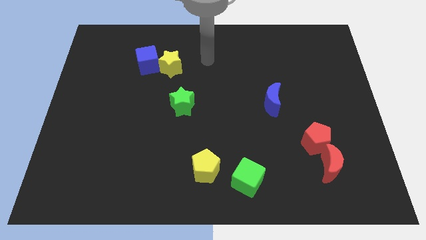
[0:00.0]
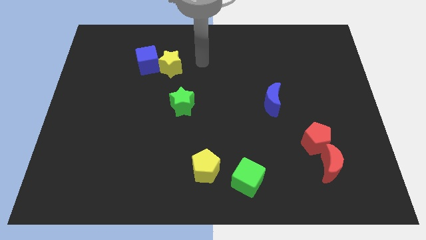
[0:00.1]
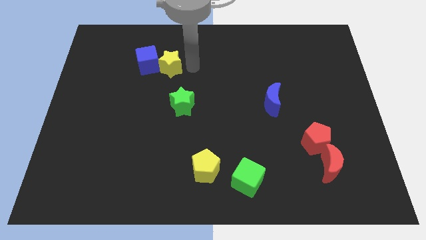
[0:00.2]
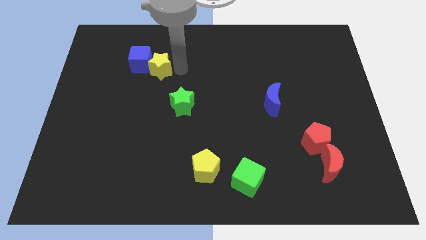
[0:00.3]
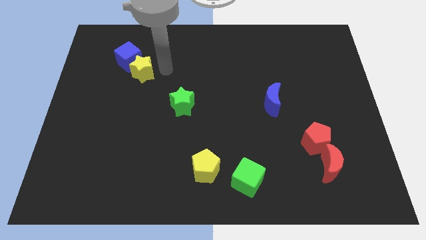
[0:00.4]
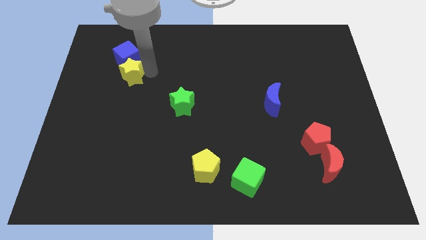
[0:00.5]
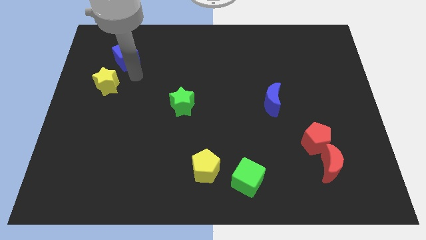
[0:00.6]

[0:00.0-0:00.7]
separate the blue cube from the yellow star

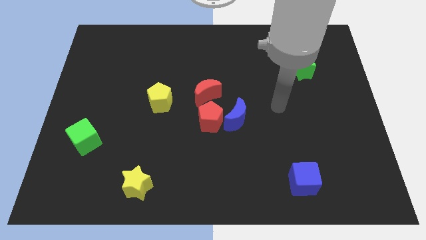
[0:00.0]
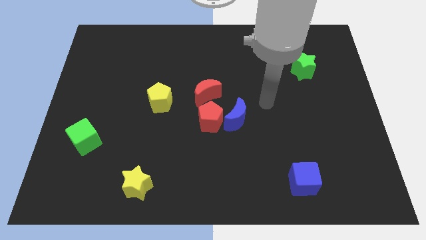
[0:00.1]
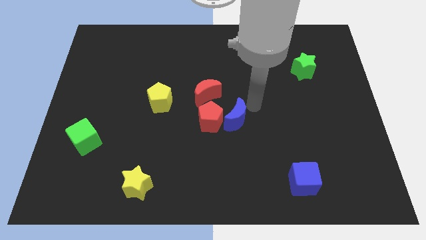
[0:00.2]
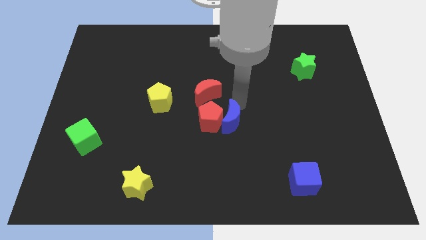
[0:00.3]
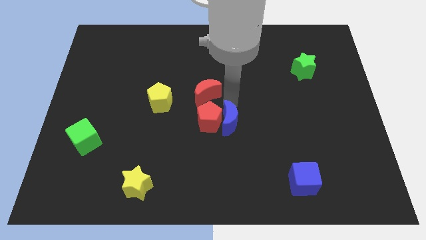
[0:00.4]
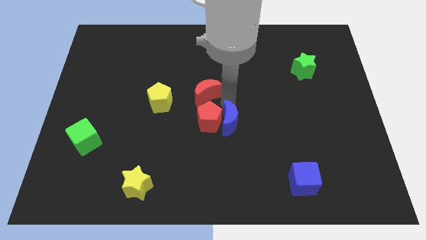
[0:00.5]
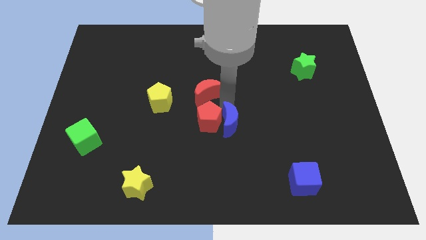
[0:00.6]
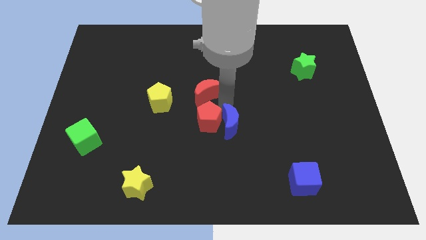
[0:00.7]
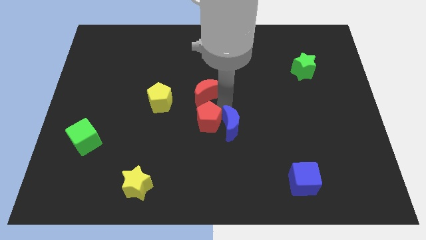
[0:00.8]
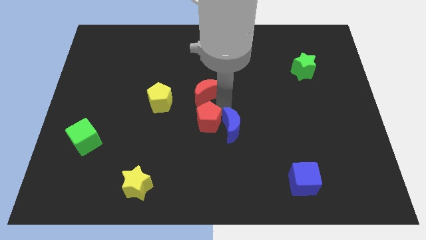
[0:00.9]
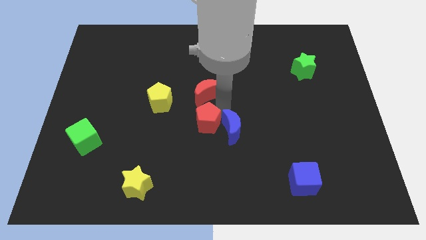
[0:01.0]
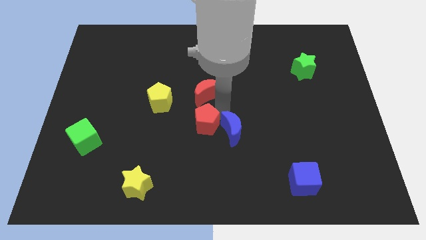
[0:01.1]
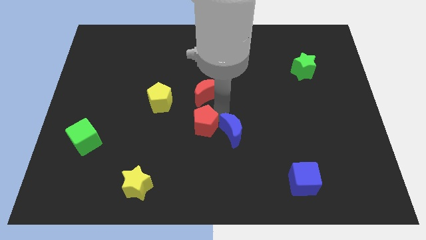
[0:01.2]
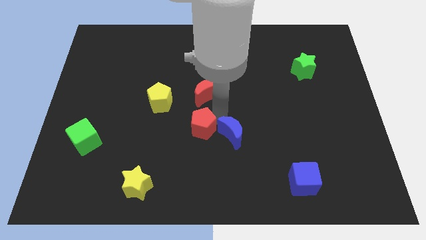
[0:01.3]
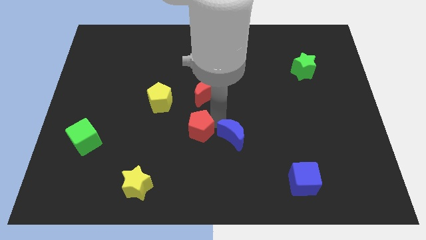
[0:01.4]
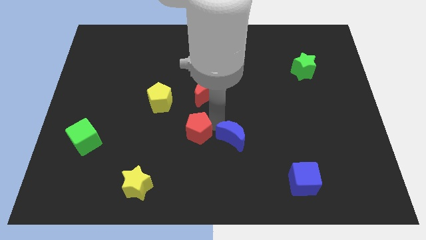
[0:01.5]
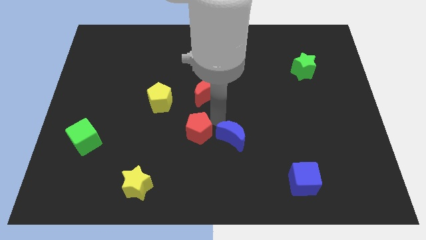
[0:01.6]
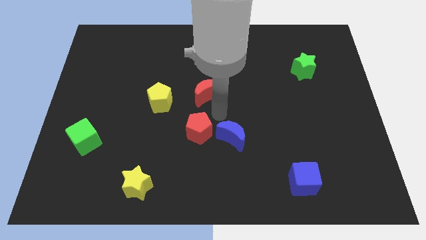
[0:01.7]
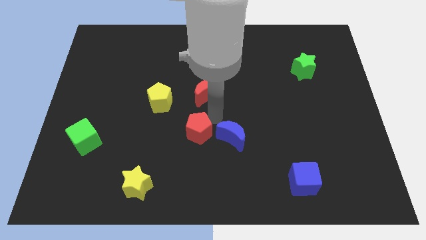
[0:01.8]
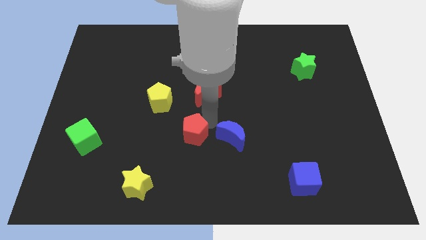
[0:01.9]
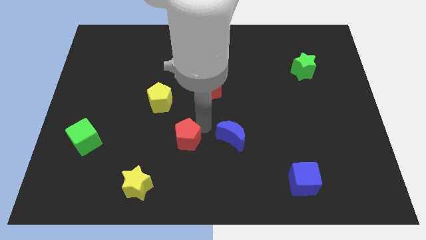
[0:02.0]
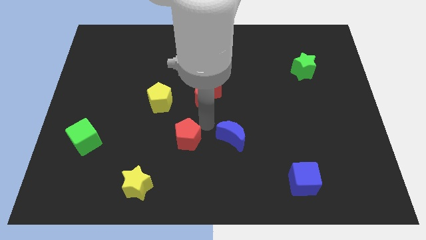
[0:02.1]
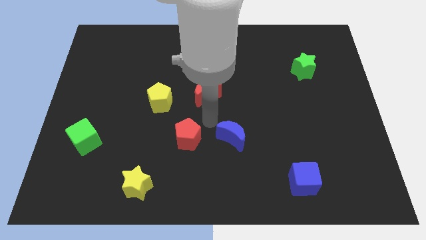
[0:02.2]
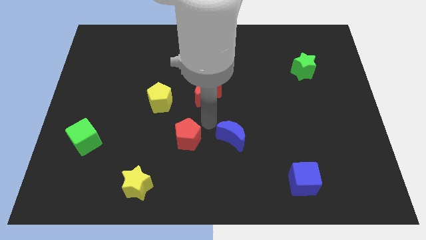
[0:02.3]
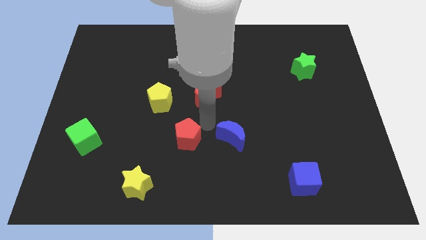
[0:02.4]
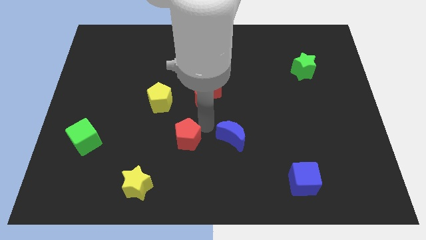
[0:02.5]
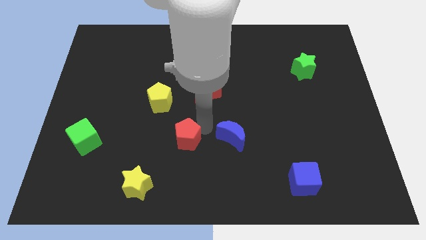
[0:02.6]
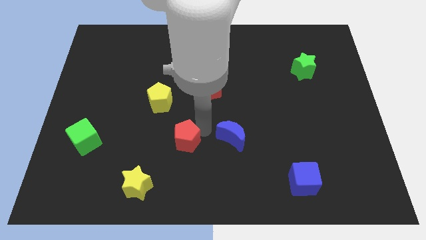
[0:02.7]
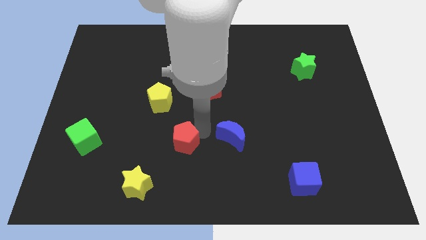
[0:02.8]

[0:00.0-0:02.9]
separate the red pentagon from the blue moon and red moon

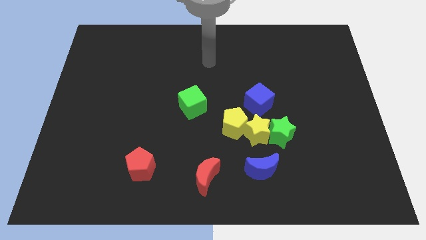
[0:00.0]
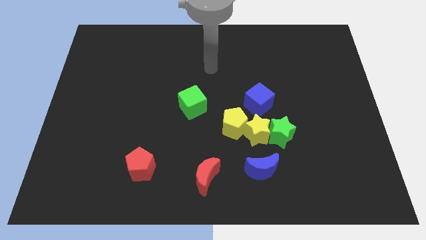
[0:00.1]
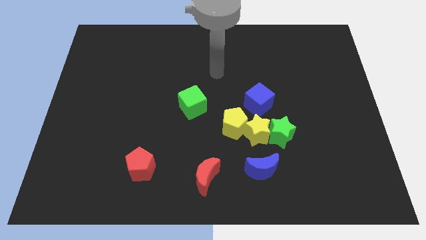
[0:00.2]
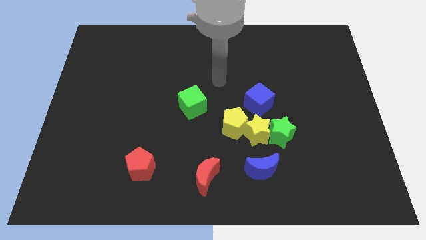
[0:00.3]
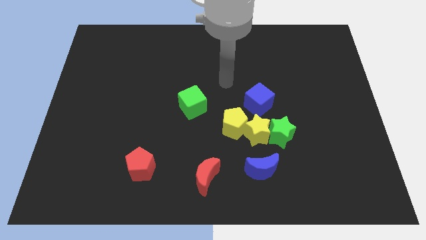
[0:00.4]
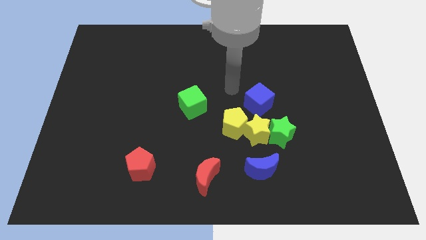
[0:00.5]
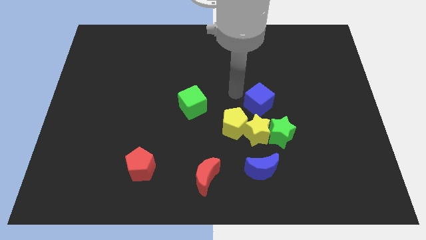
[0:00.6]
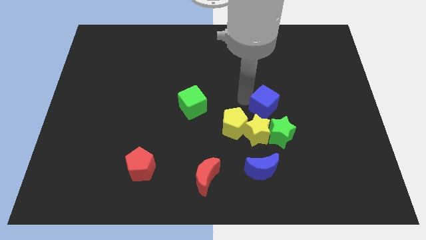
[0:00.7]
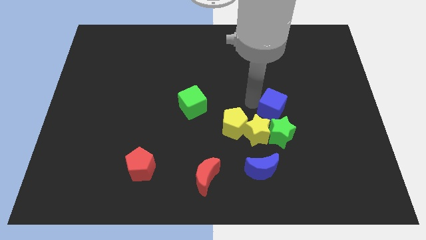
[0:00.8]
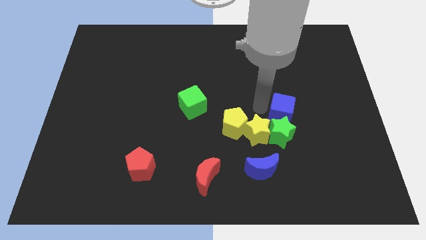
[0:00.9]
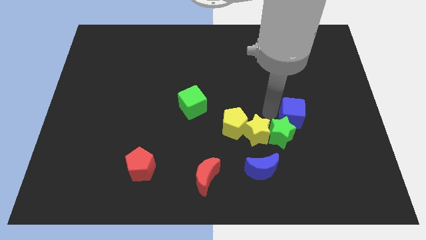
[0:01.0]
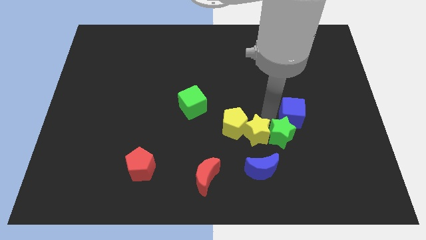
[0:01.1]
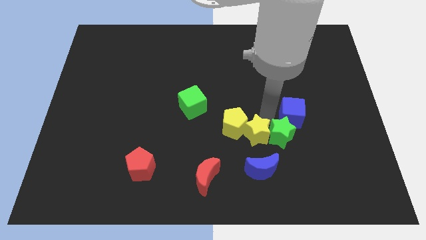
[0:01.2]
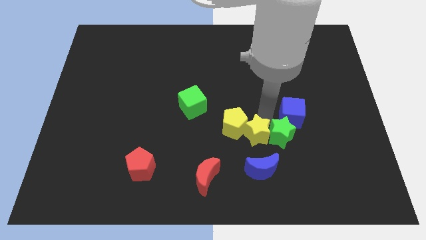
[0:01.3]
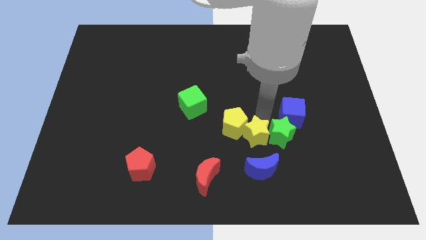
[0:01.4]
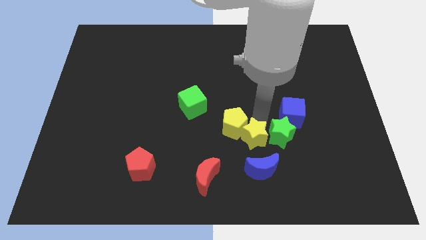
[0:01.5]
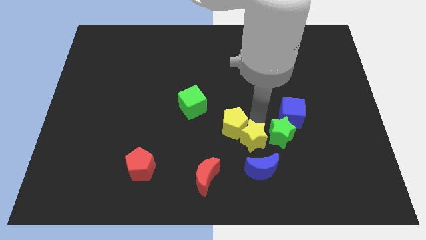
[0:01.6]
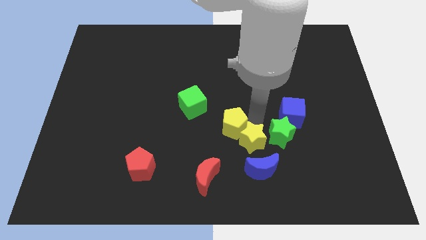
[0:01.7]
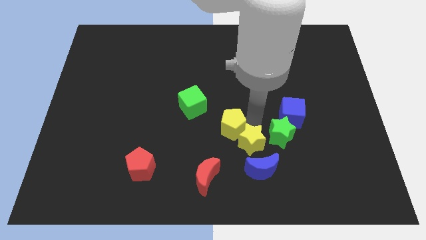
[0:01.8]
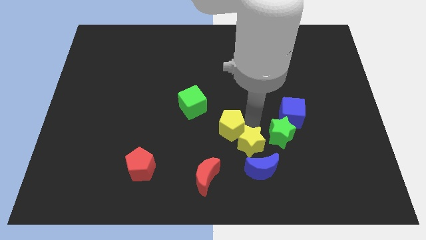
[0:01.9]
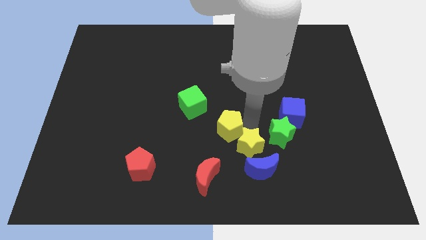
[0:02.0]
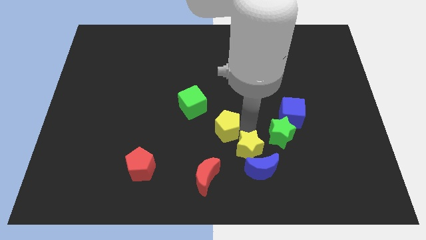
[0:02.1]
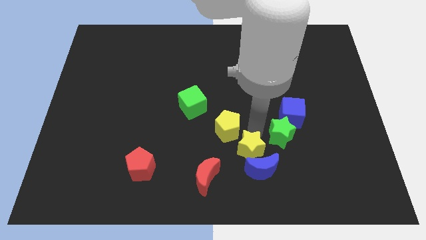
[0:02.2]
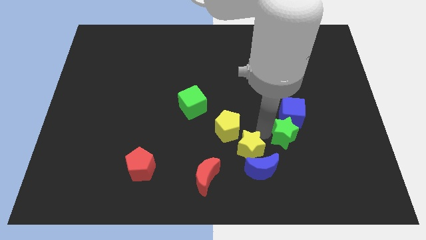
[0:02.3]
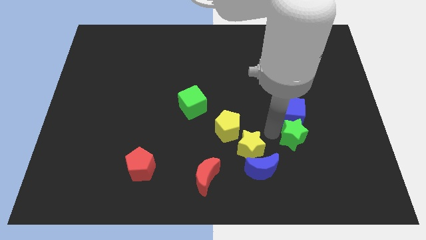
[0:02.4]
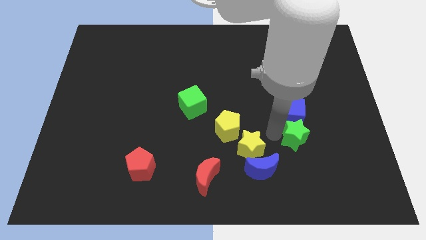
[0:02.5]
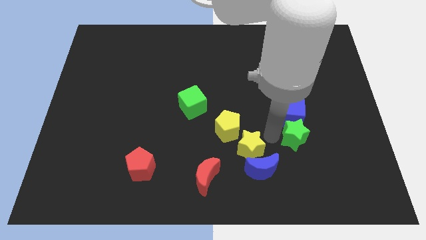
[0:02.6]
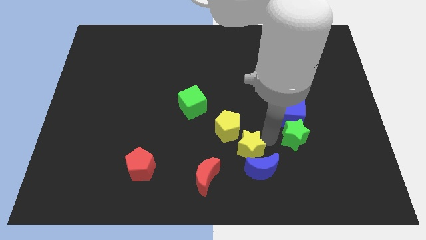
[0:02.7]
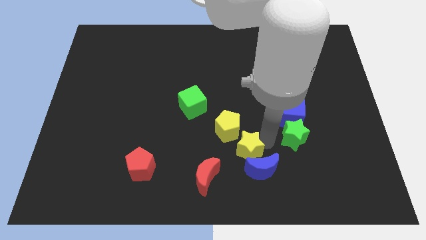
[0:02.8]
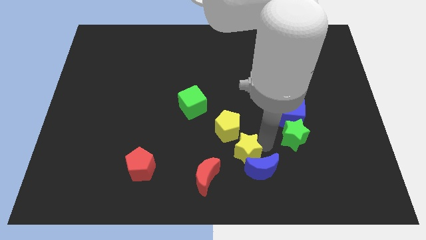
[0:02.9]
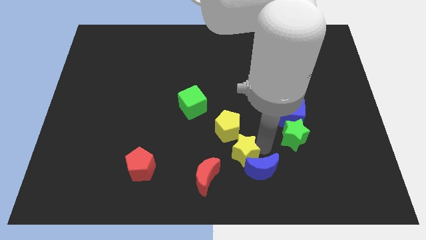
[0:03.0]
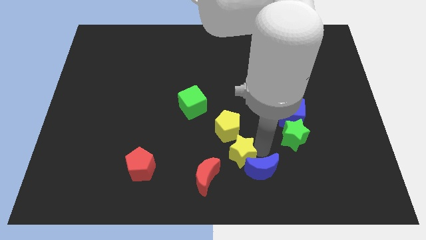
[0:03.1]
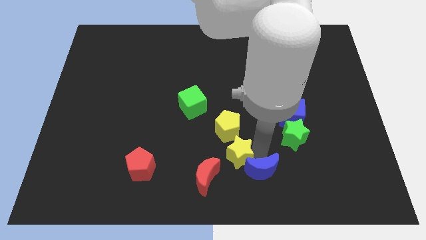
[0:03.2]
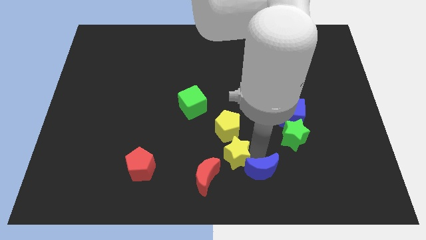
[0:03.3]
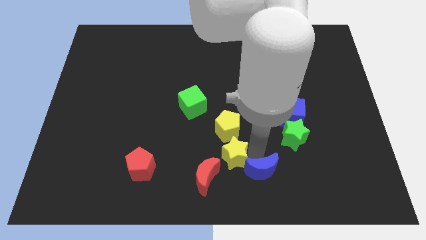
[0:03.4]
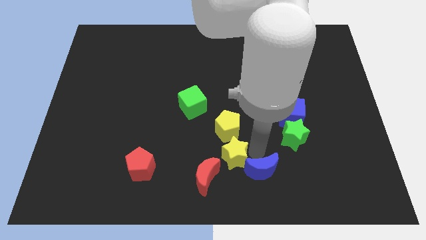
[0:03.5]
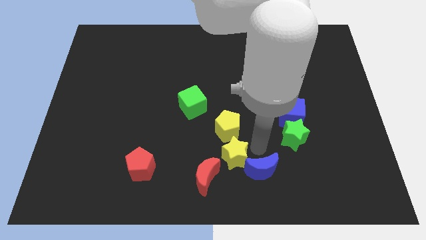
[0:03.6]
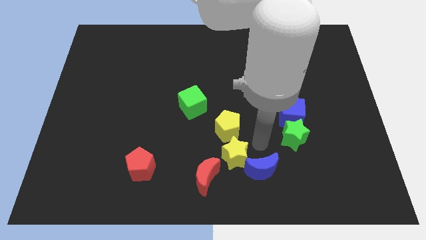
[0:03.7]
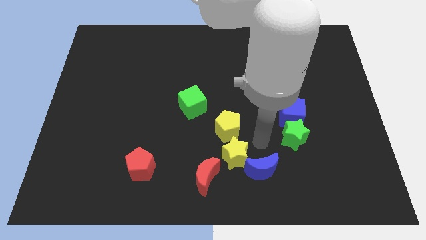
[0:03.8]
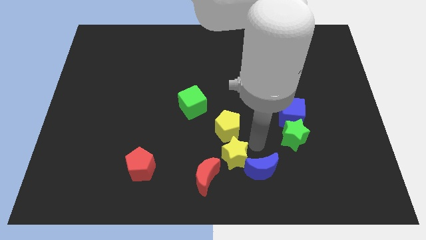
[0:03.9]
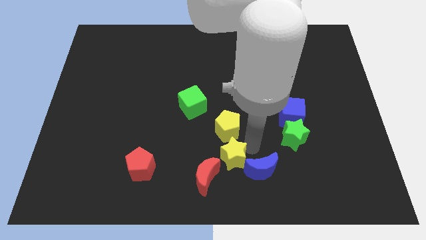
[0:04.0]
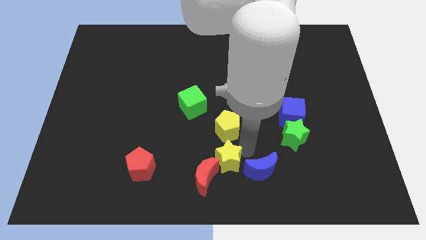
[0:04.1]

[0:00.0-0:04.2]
separate the yellow star from the group of blocks

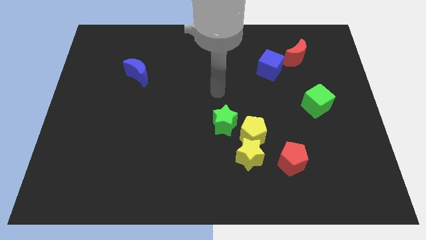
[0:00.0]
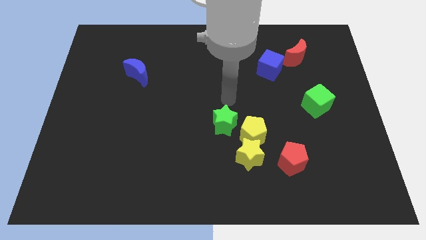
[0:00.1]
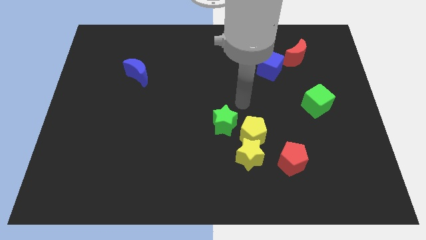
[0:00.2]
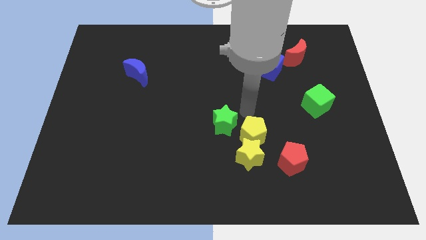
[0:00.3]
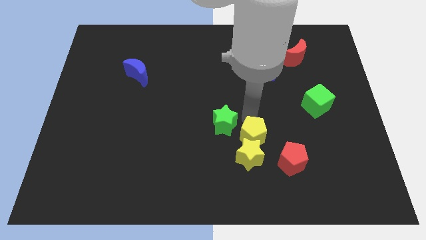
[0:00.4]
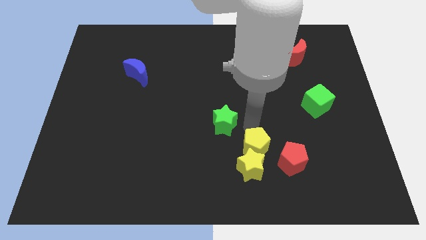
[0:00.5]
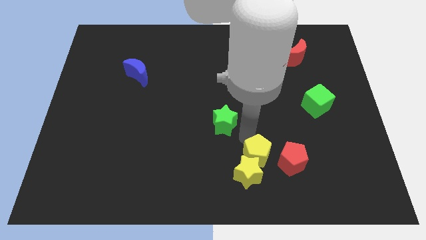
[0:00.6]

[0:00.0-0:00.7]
separate the green star from the yellow pentagon

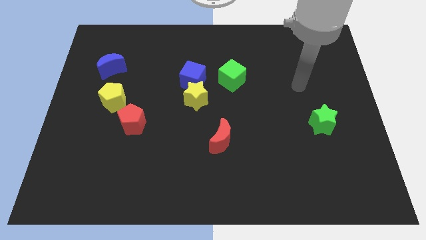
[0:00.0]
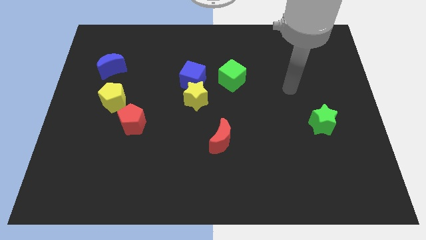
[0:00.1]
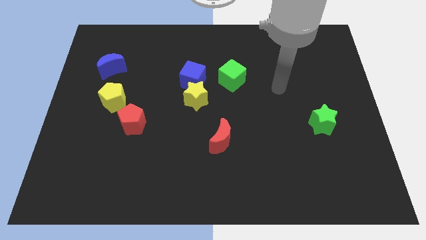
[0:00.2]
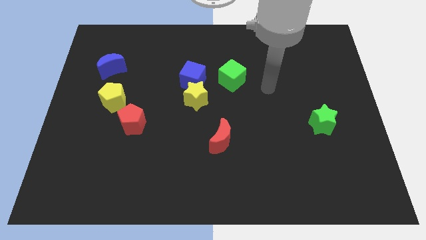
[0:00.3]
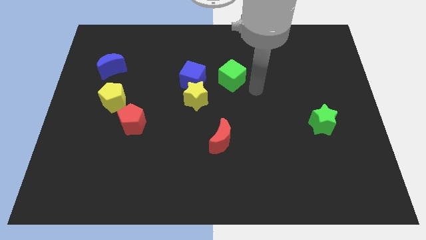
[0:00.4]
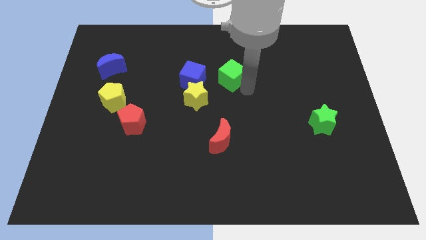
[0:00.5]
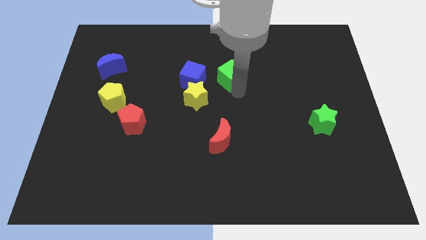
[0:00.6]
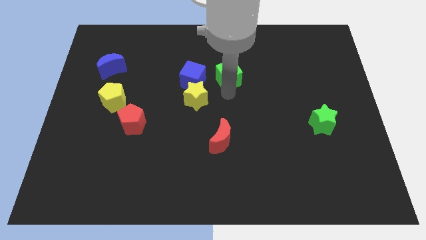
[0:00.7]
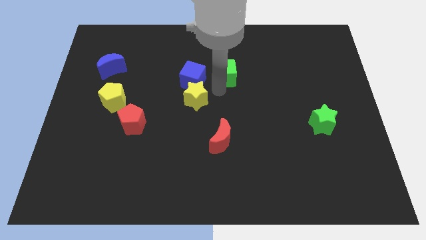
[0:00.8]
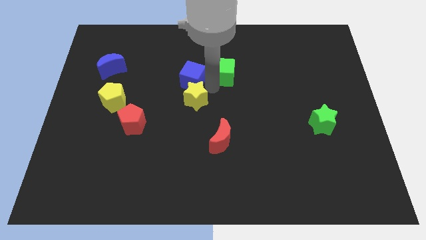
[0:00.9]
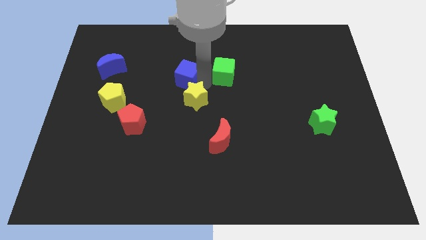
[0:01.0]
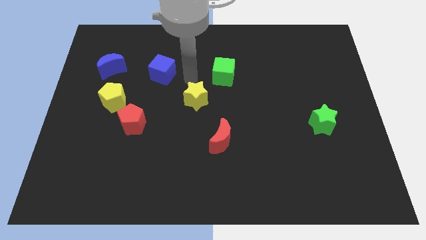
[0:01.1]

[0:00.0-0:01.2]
separate the yellow star from the blue cube
